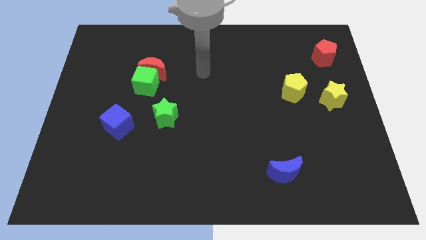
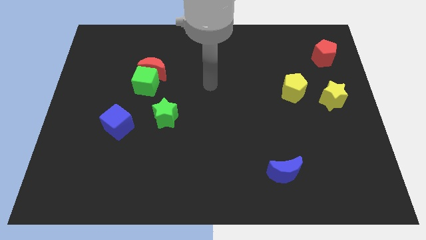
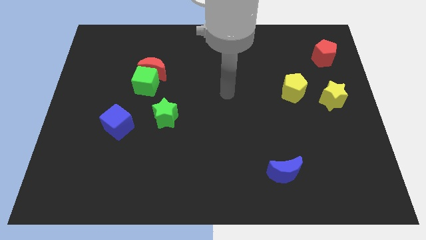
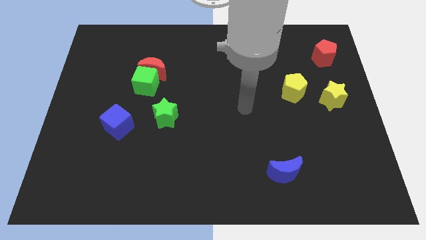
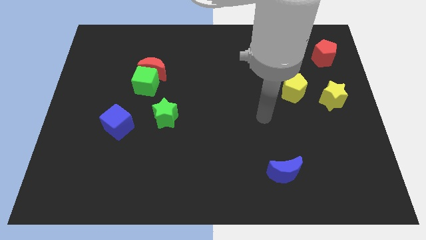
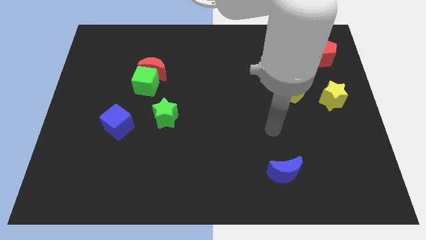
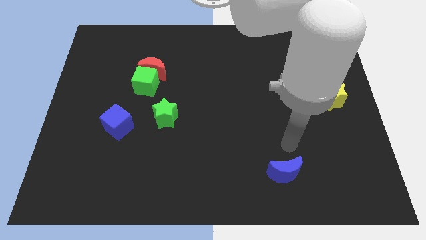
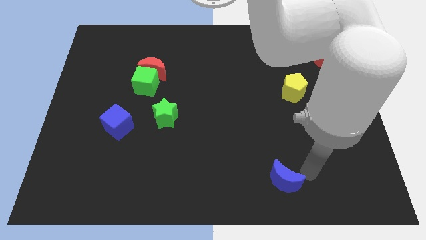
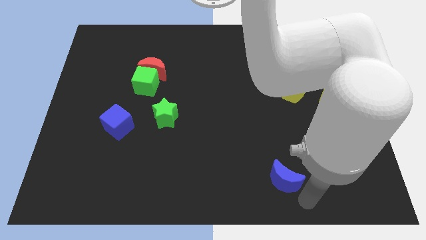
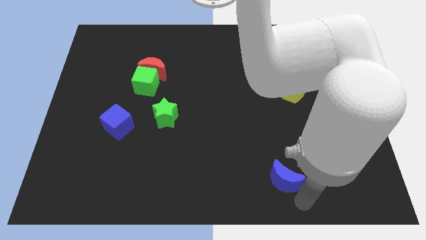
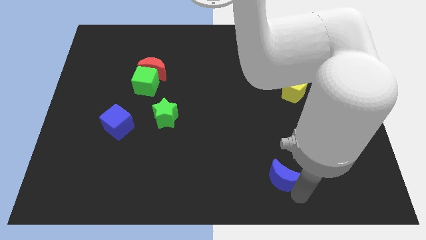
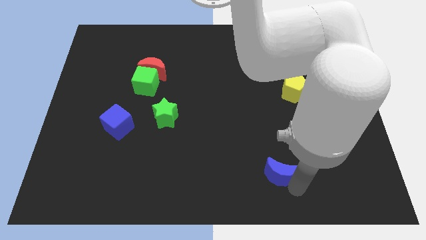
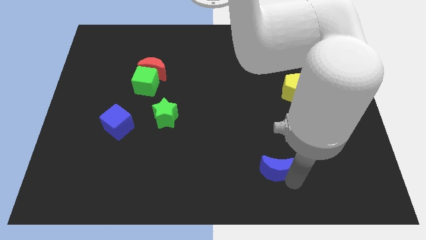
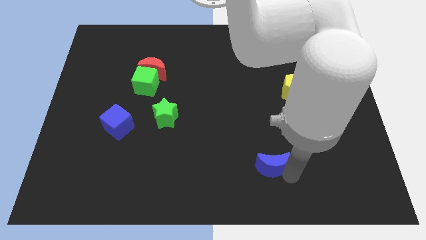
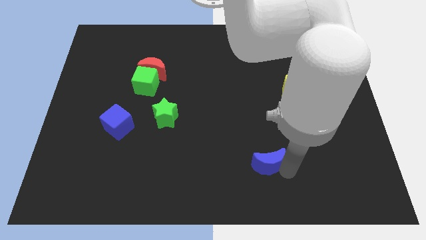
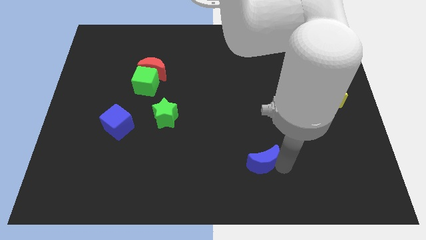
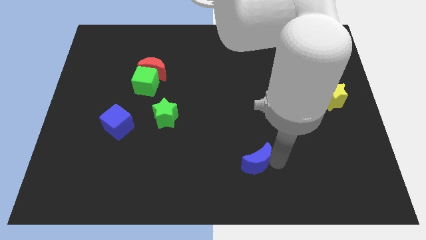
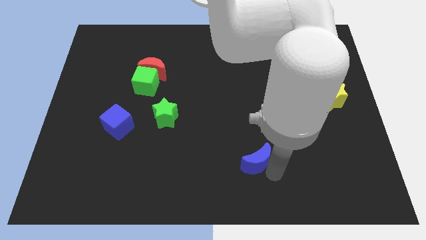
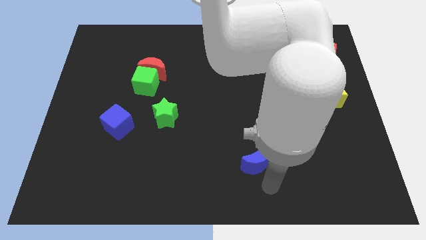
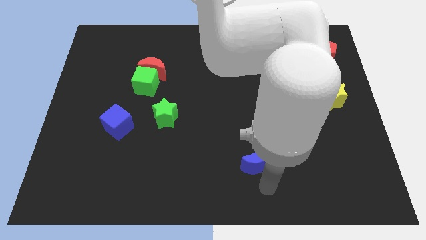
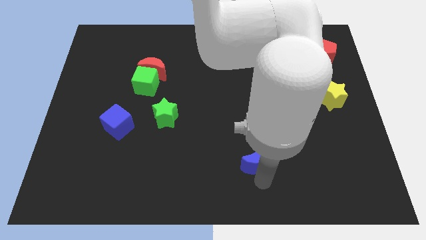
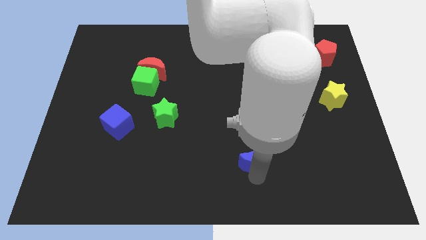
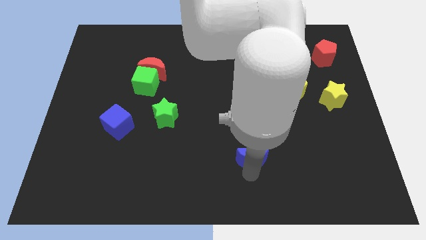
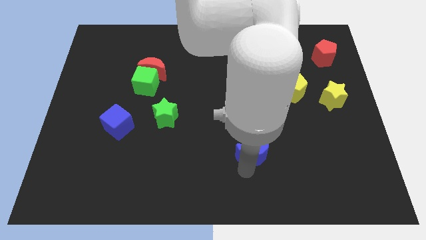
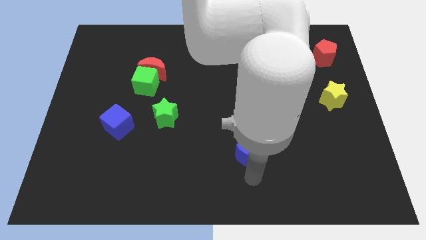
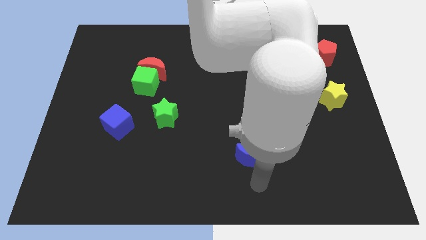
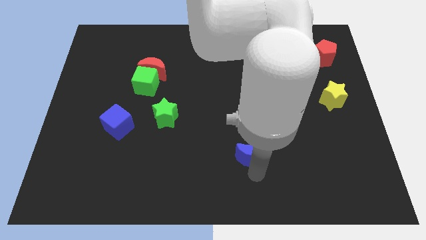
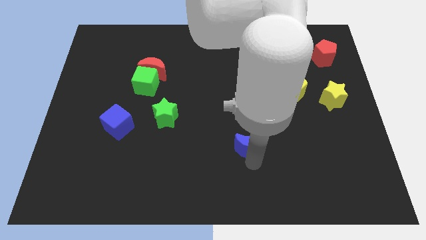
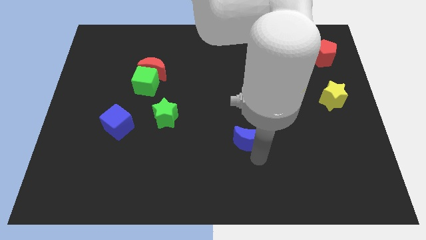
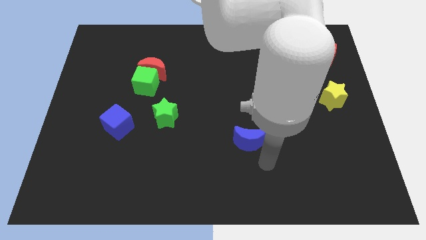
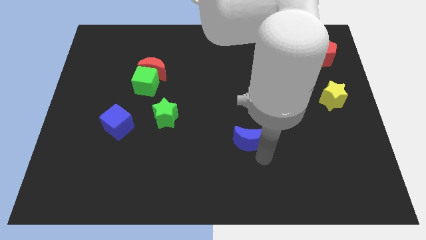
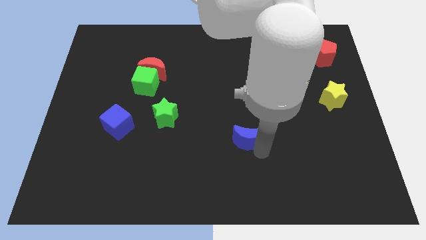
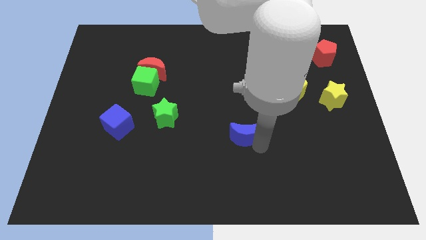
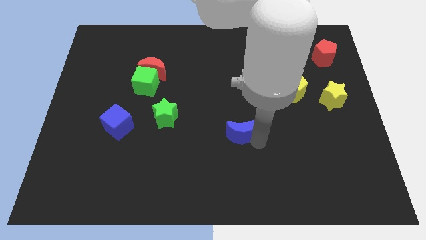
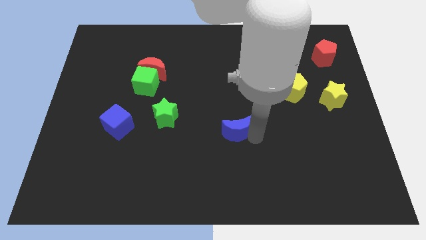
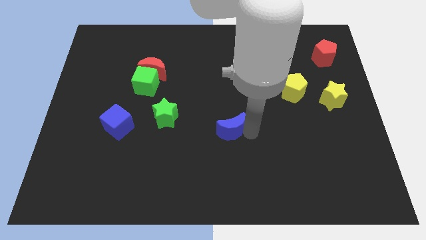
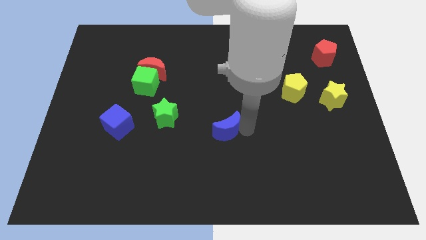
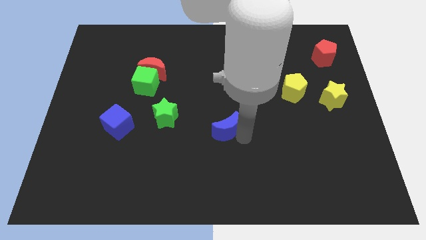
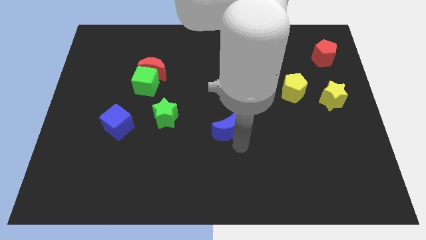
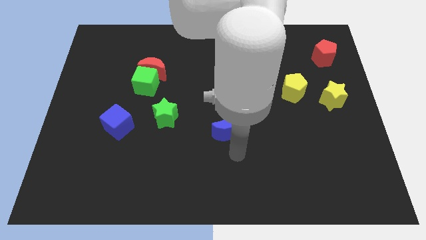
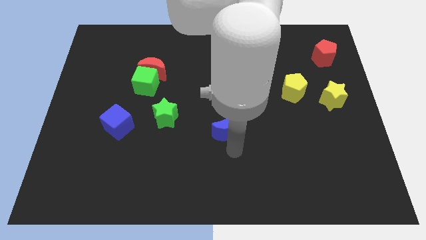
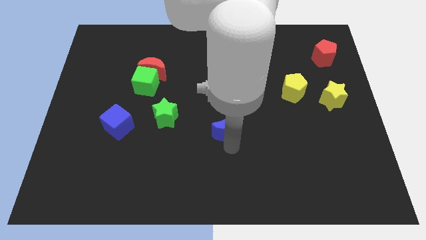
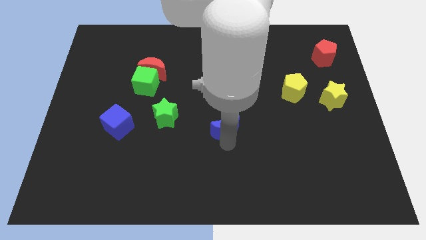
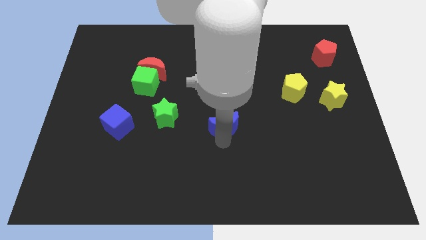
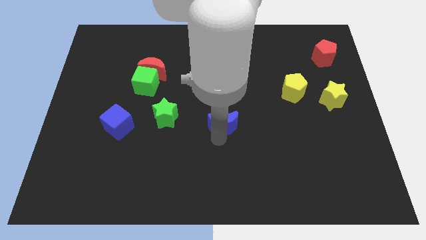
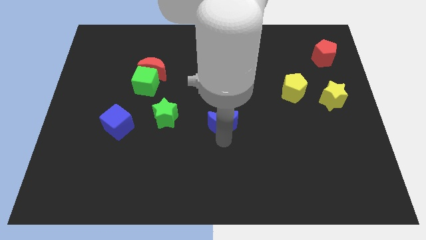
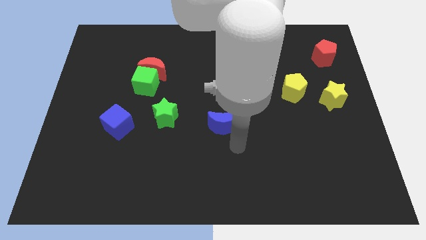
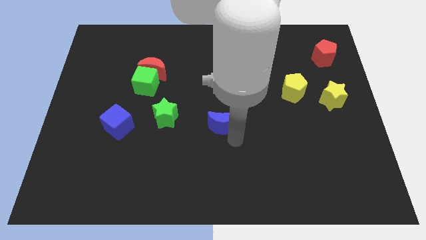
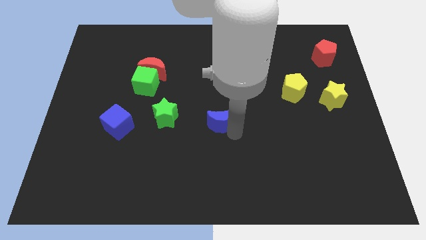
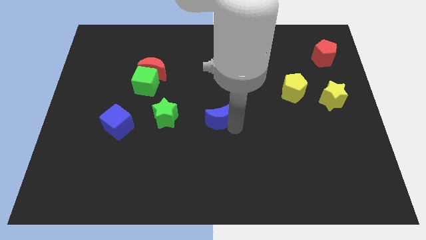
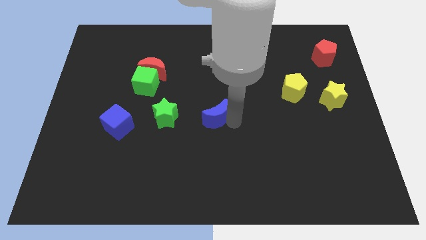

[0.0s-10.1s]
move the blue moon upwards and left

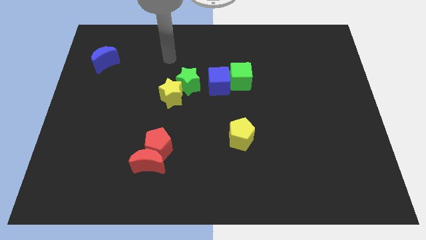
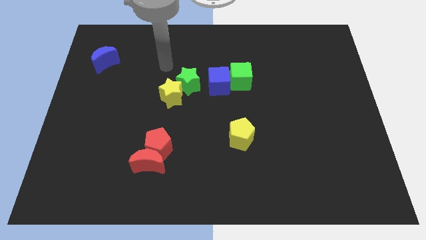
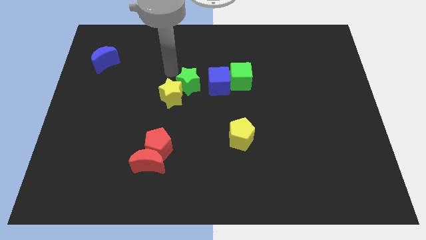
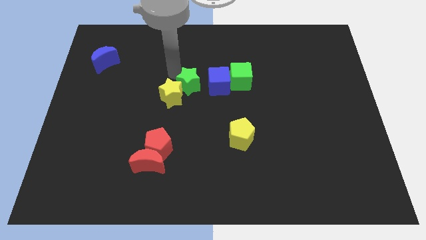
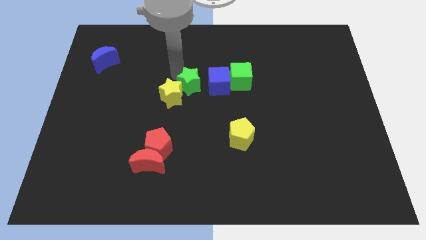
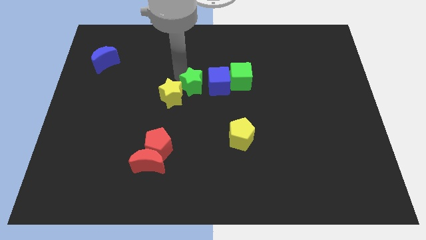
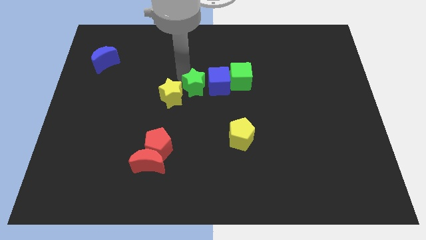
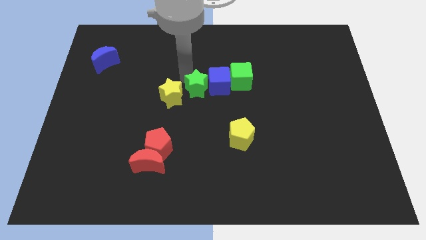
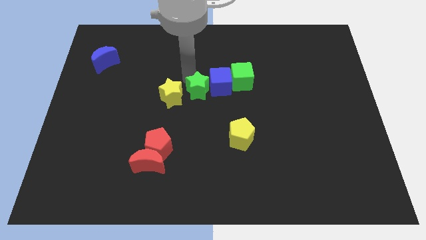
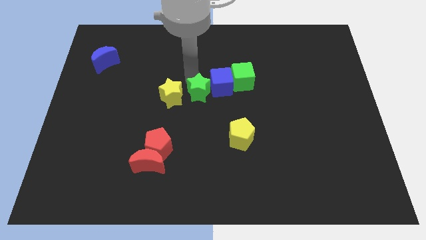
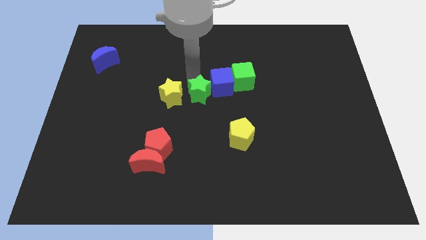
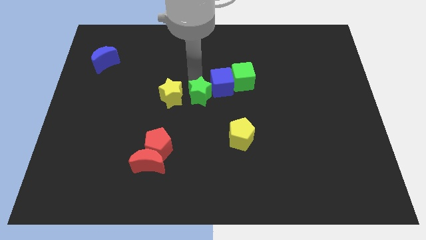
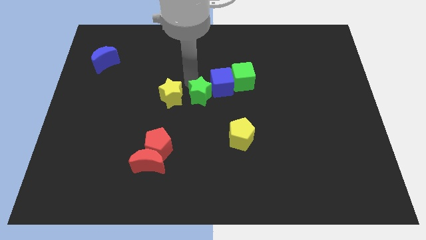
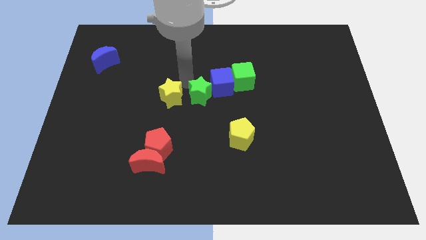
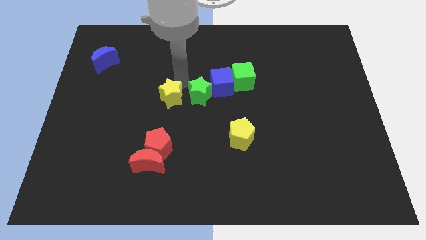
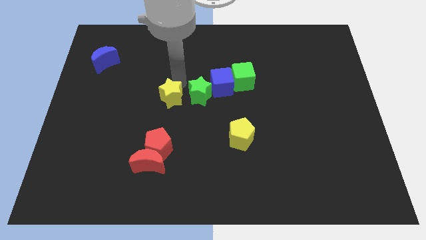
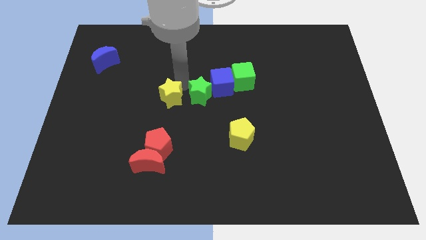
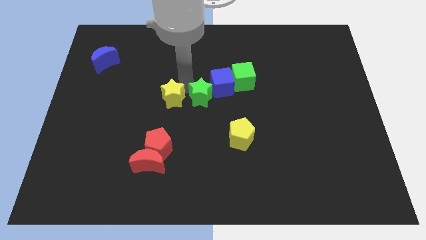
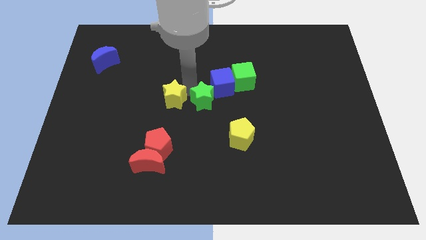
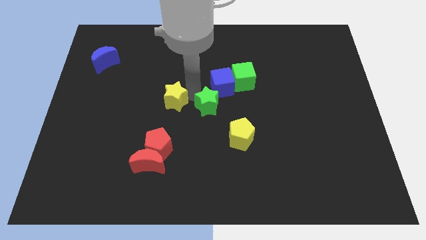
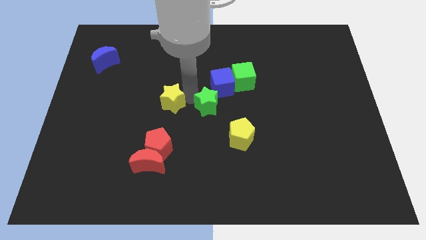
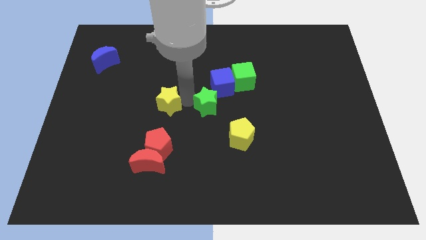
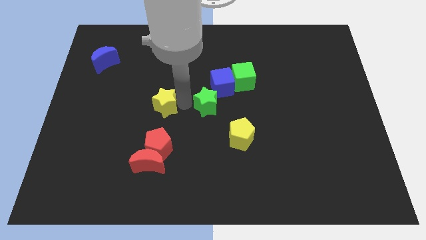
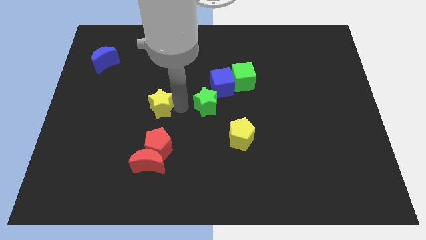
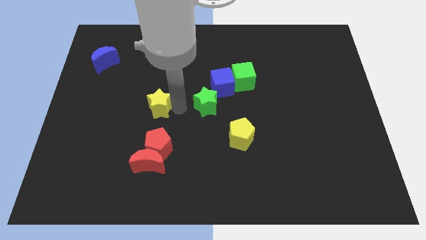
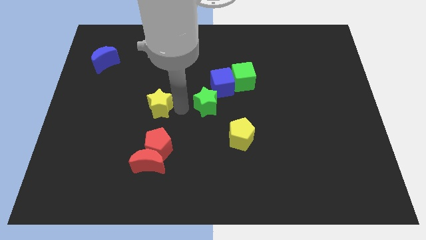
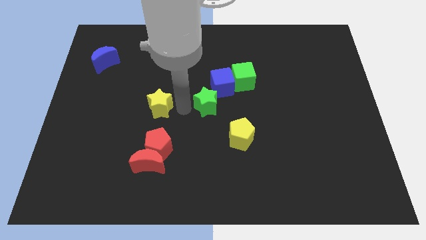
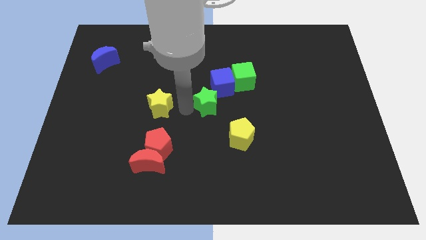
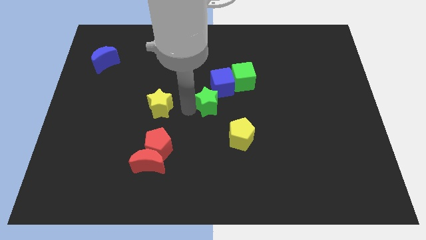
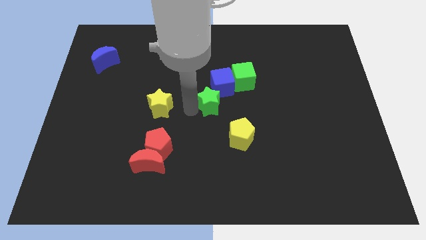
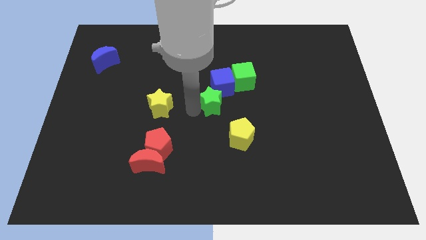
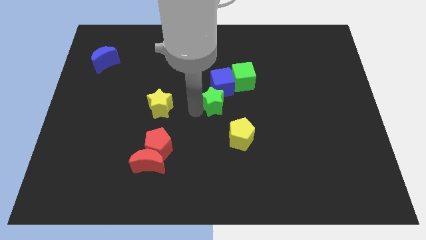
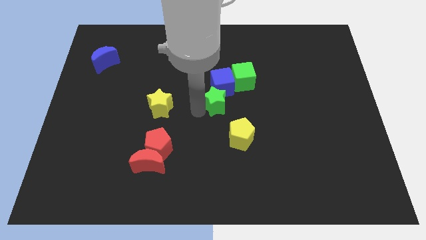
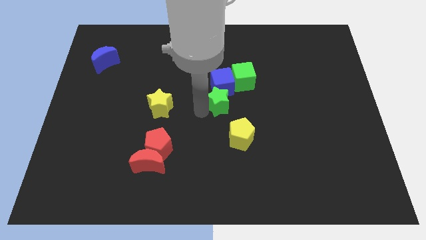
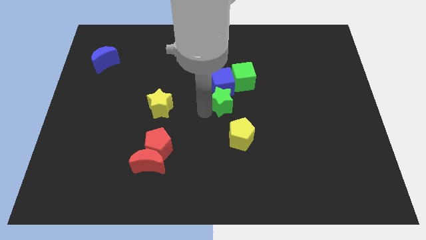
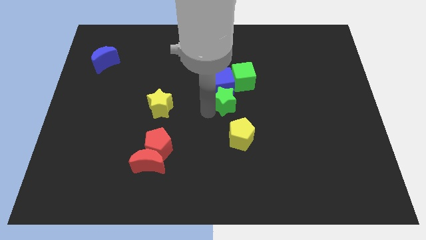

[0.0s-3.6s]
push the green star right a little
